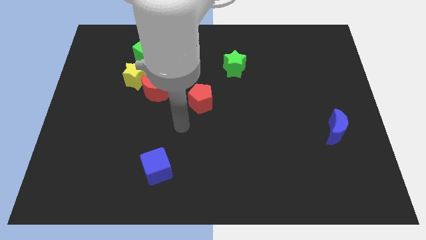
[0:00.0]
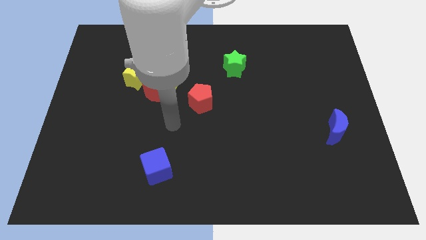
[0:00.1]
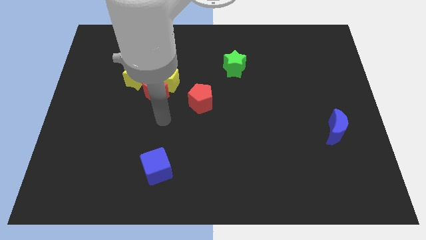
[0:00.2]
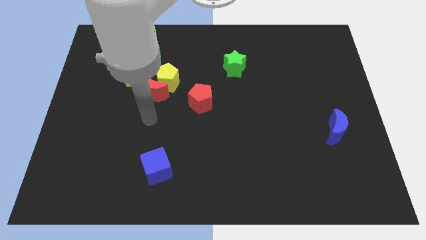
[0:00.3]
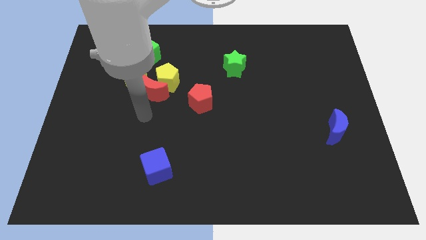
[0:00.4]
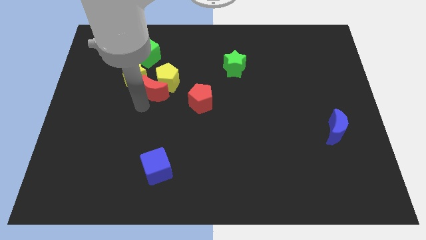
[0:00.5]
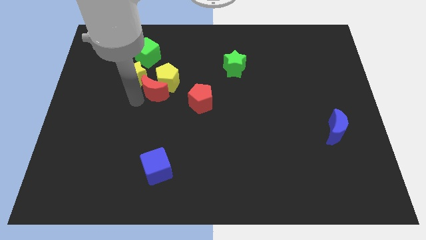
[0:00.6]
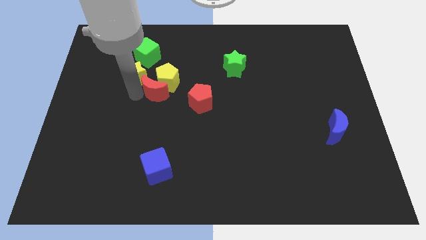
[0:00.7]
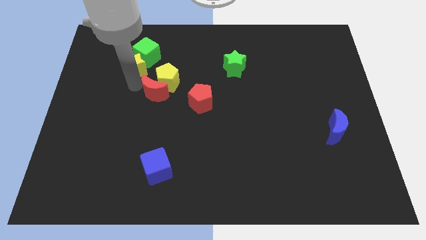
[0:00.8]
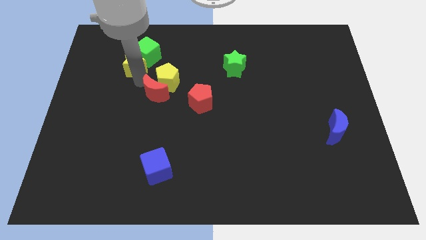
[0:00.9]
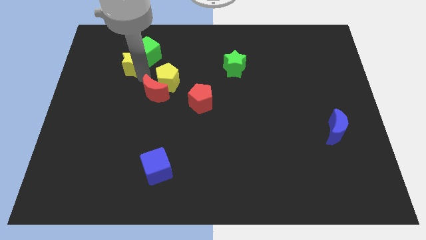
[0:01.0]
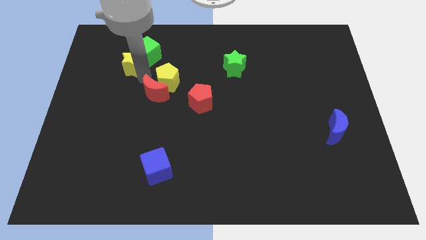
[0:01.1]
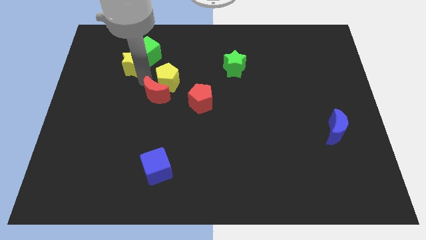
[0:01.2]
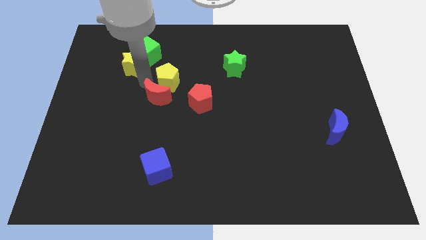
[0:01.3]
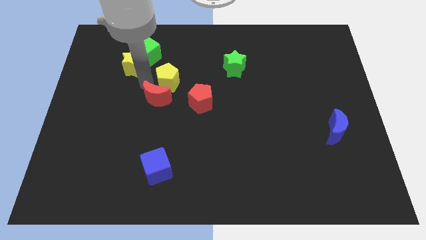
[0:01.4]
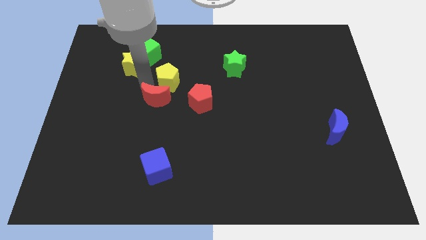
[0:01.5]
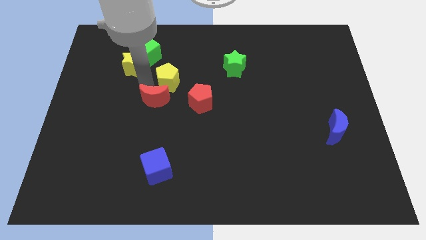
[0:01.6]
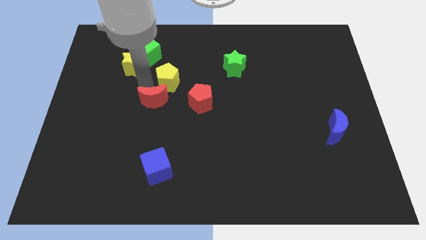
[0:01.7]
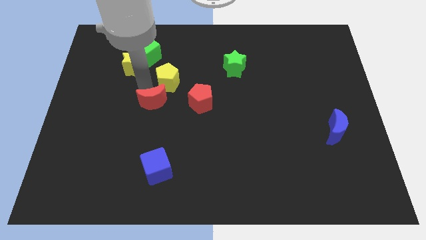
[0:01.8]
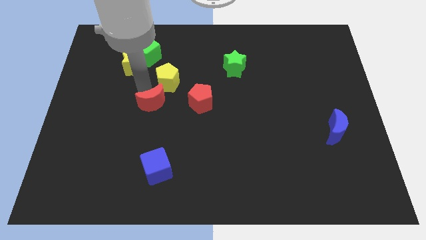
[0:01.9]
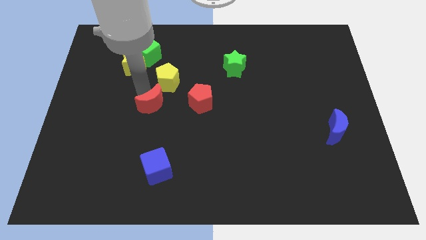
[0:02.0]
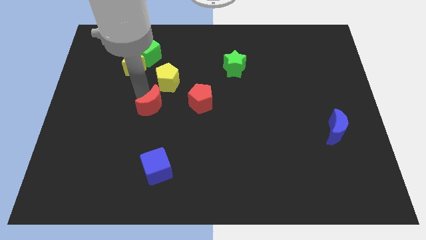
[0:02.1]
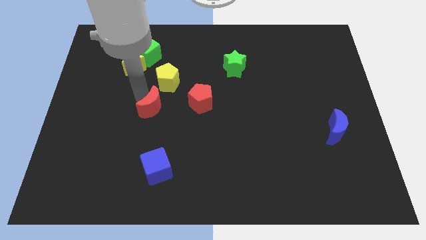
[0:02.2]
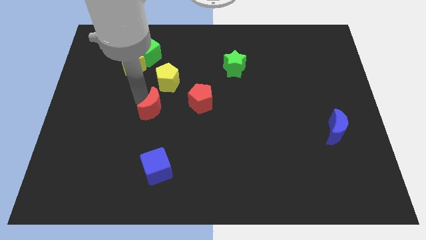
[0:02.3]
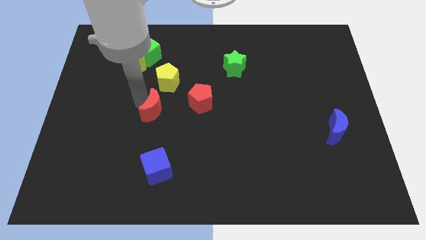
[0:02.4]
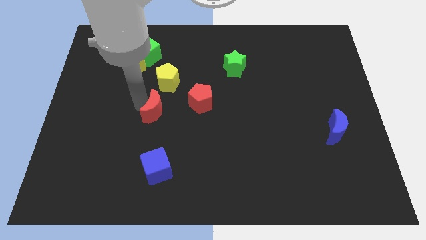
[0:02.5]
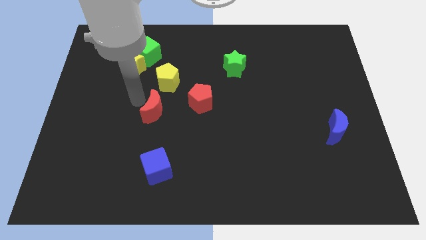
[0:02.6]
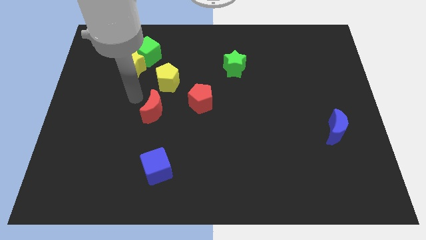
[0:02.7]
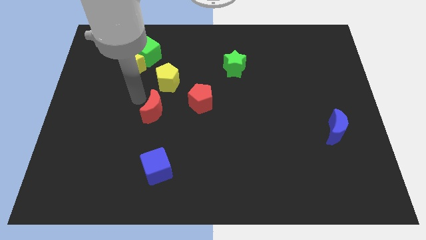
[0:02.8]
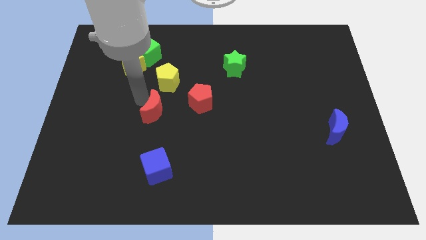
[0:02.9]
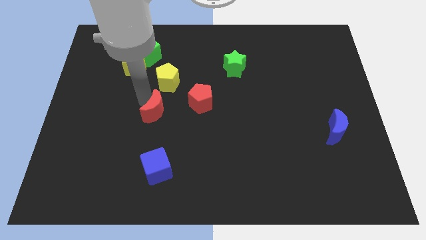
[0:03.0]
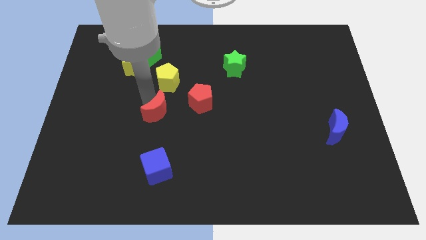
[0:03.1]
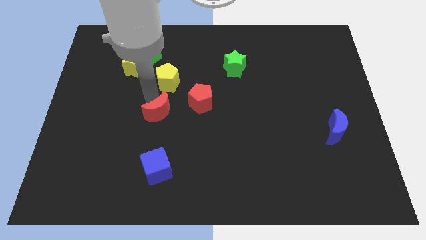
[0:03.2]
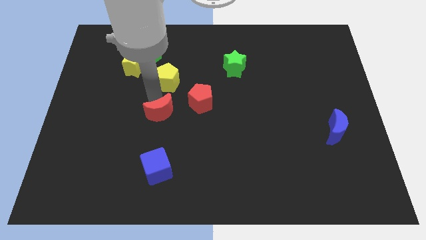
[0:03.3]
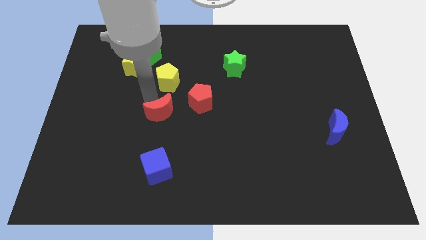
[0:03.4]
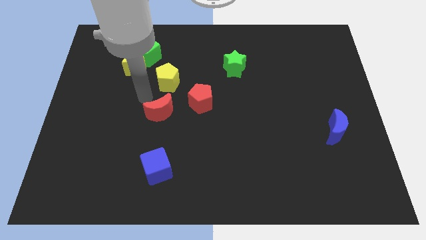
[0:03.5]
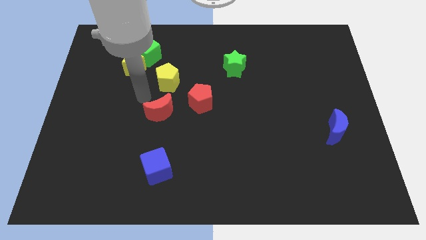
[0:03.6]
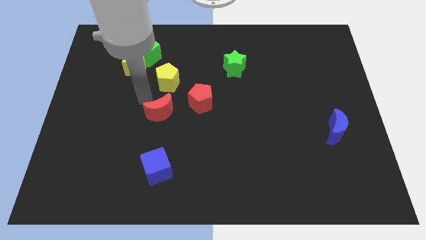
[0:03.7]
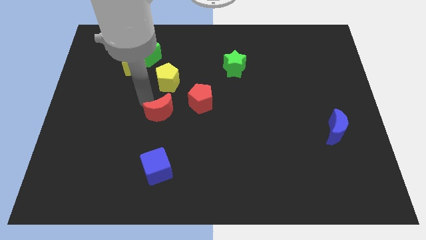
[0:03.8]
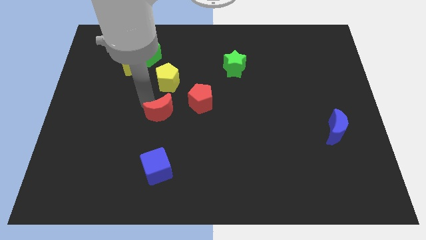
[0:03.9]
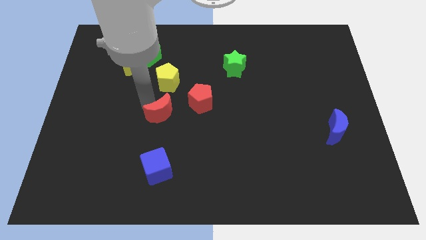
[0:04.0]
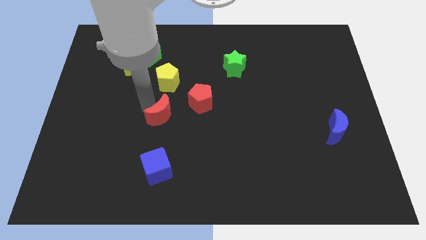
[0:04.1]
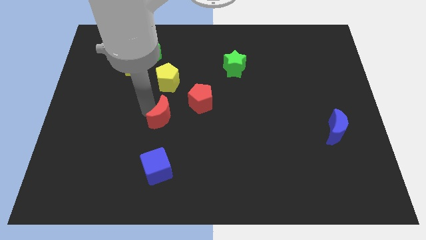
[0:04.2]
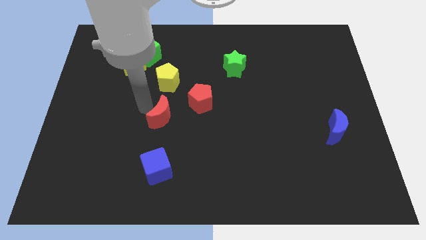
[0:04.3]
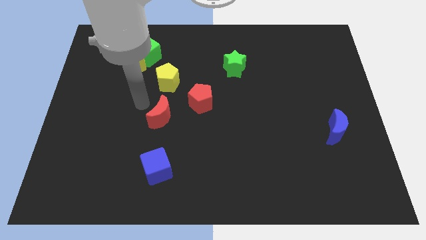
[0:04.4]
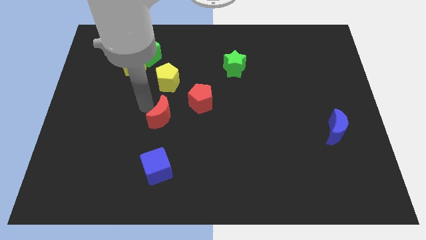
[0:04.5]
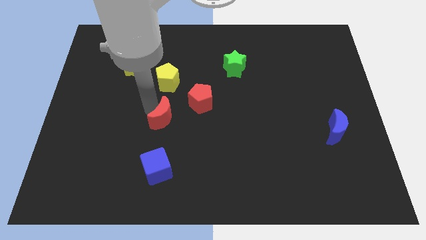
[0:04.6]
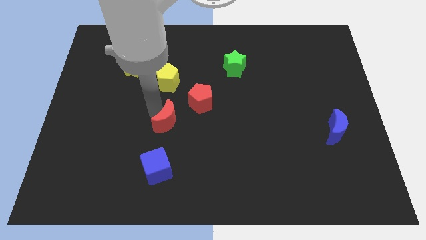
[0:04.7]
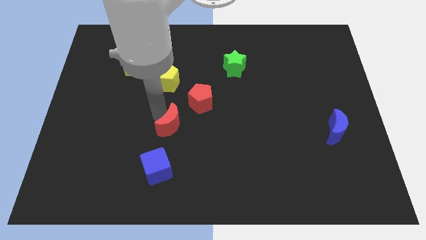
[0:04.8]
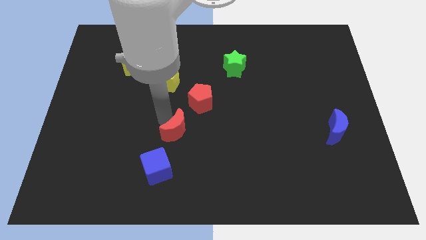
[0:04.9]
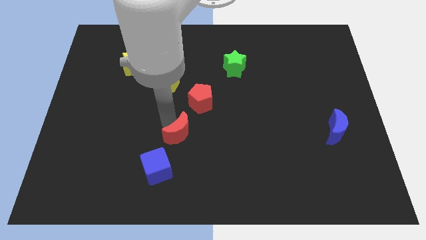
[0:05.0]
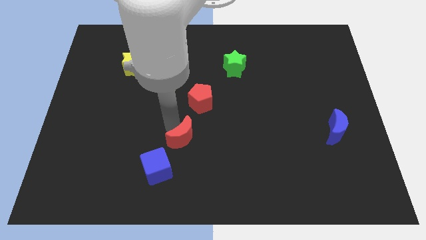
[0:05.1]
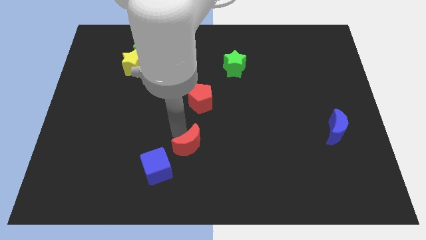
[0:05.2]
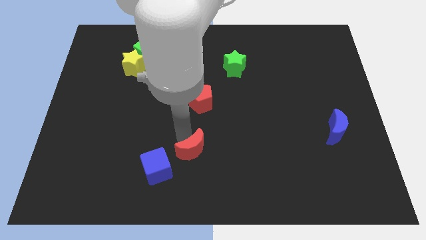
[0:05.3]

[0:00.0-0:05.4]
push the red moon right of the blue cube

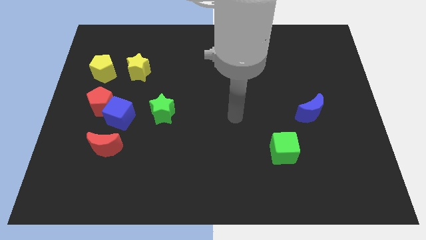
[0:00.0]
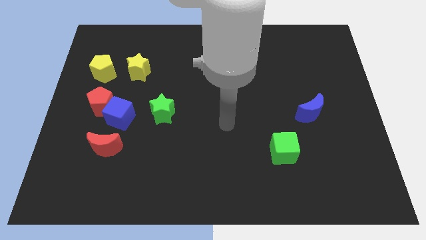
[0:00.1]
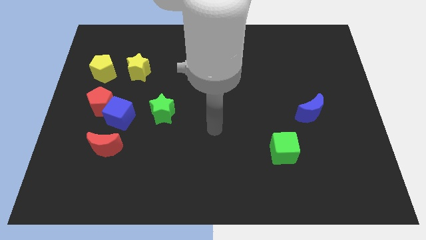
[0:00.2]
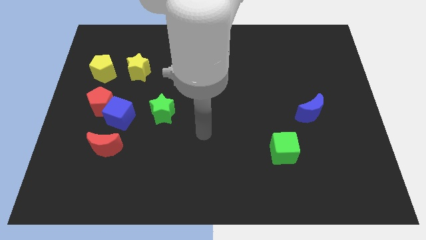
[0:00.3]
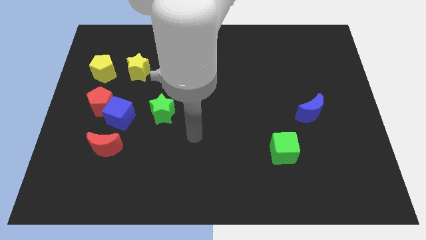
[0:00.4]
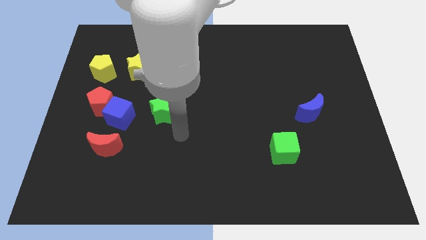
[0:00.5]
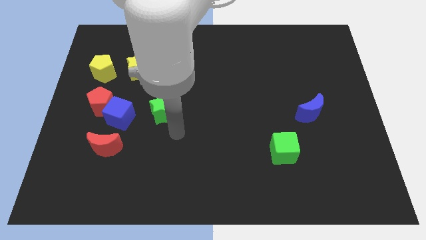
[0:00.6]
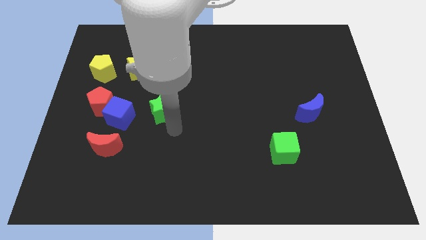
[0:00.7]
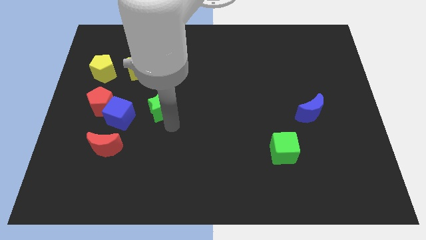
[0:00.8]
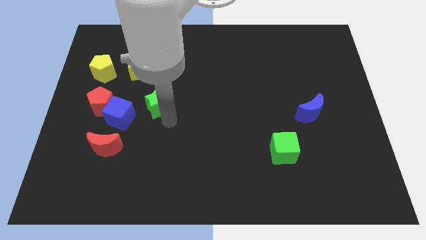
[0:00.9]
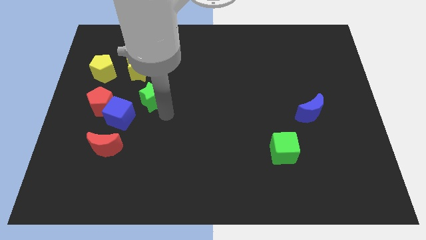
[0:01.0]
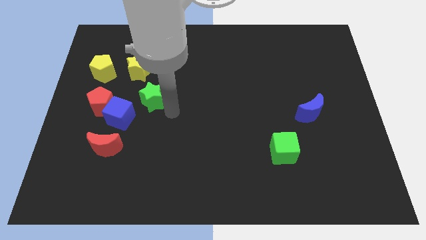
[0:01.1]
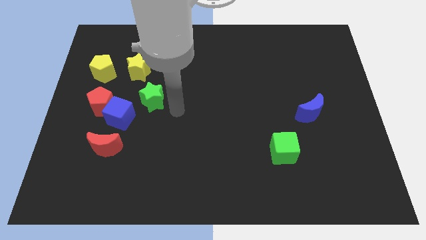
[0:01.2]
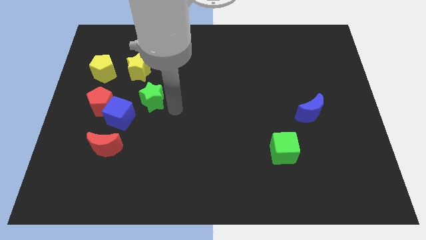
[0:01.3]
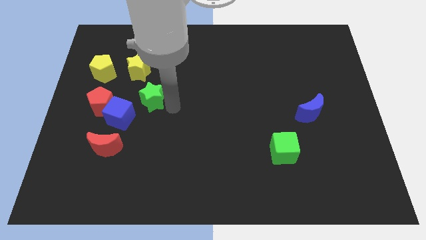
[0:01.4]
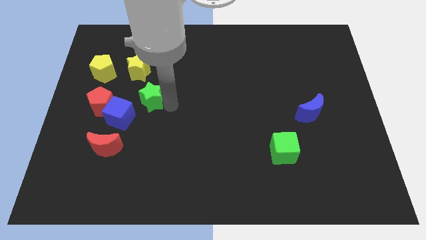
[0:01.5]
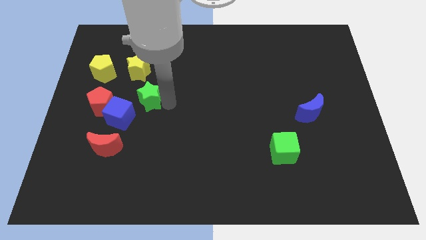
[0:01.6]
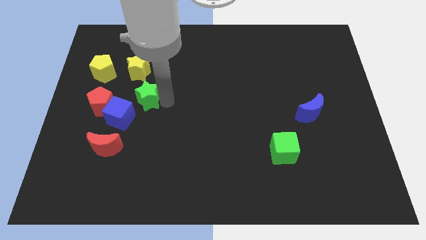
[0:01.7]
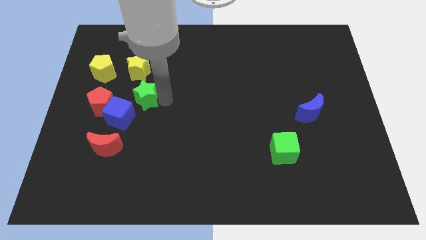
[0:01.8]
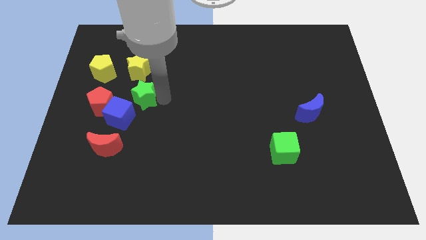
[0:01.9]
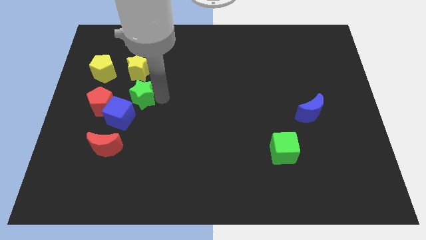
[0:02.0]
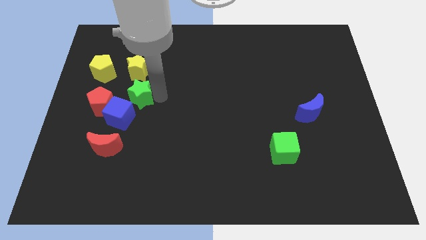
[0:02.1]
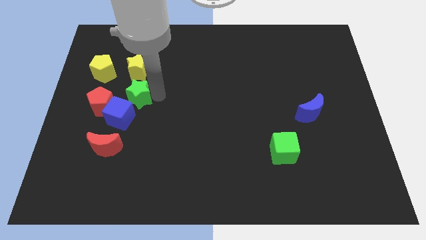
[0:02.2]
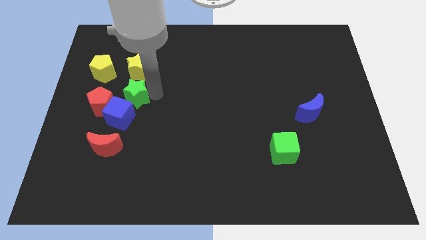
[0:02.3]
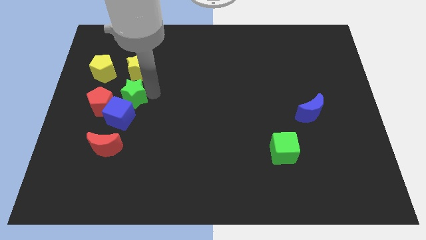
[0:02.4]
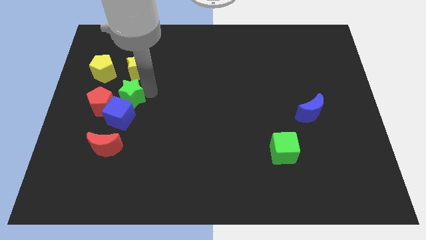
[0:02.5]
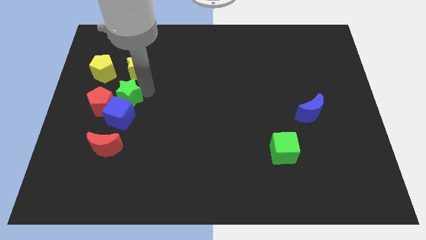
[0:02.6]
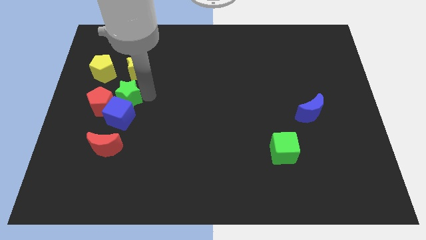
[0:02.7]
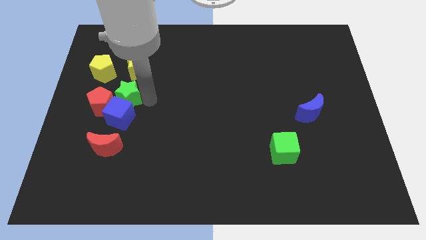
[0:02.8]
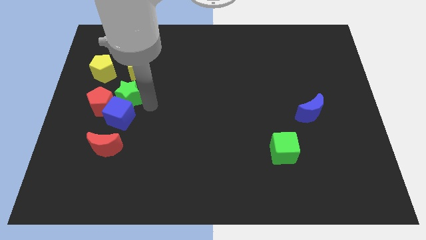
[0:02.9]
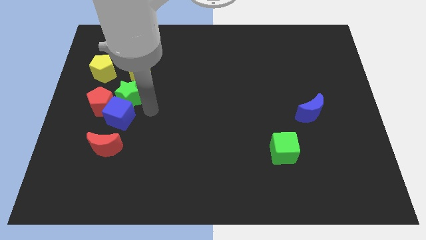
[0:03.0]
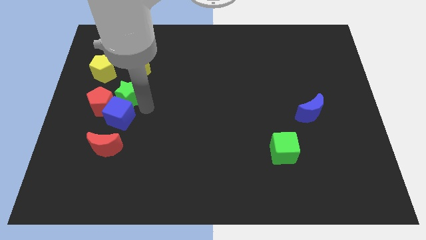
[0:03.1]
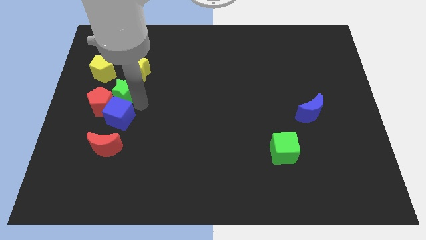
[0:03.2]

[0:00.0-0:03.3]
put the green star to the top left of the blue cube
